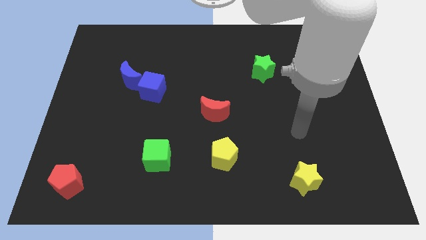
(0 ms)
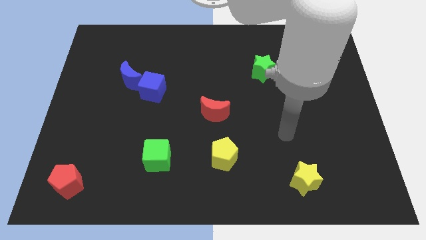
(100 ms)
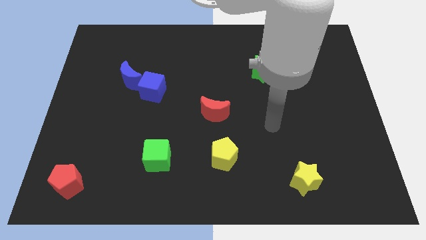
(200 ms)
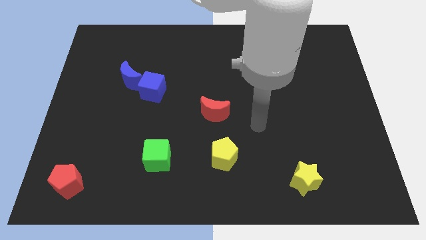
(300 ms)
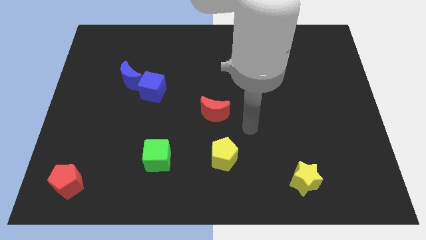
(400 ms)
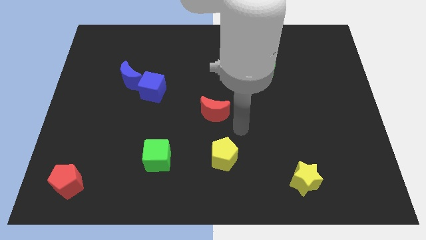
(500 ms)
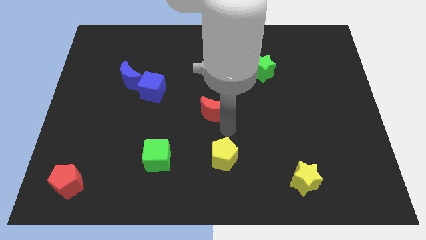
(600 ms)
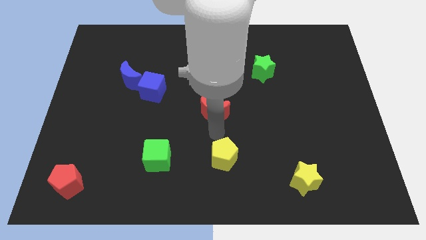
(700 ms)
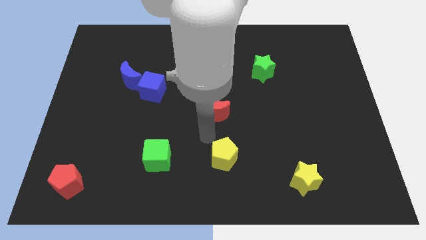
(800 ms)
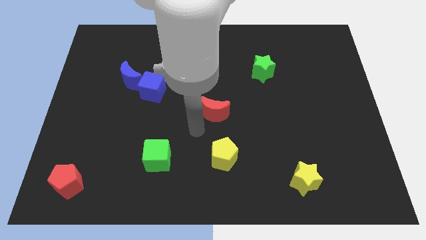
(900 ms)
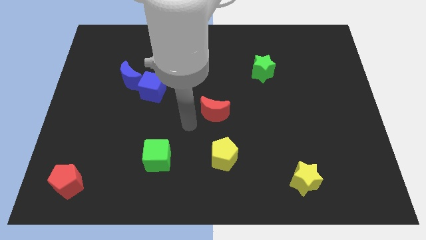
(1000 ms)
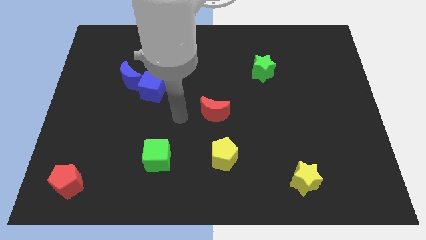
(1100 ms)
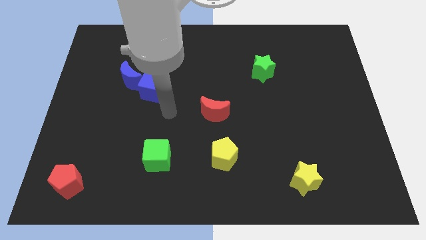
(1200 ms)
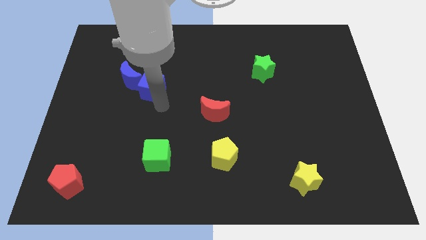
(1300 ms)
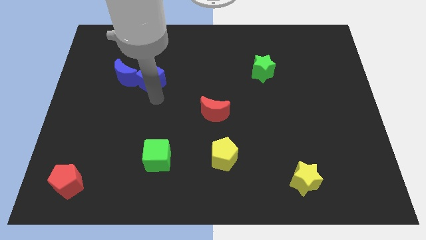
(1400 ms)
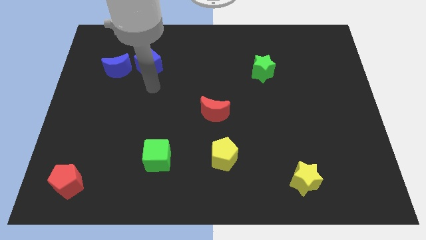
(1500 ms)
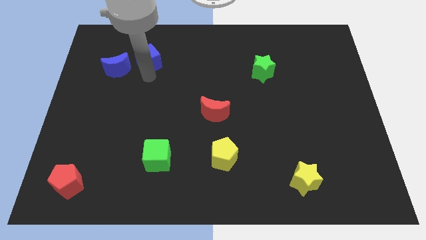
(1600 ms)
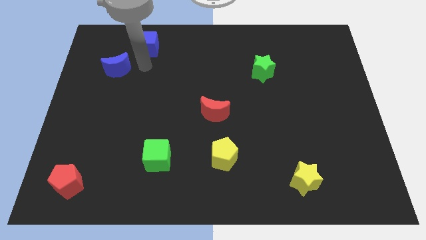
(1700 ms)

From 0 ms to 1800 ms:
pull the blue moon apart from the blue cube

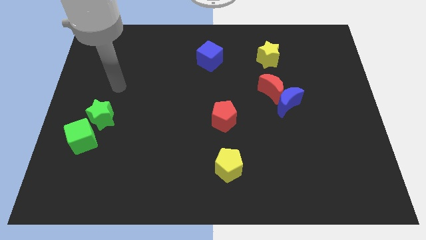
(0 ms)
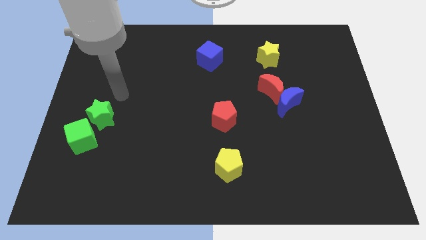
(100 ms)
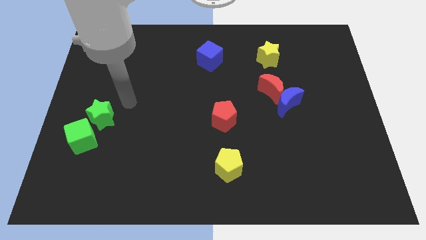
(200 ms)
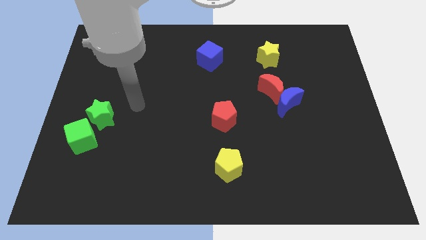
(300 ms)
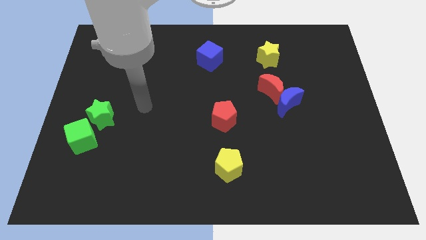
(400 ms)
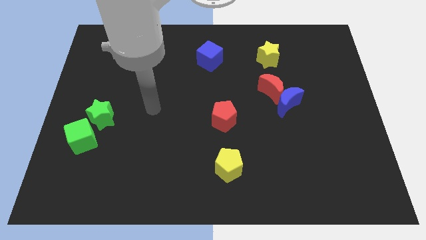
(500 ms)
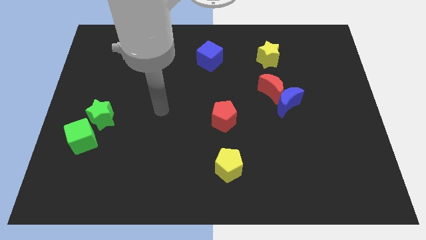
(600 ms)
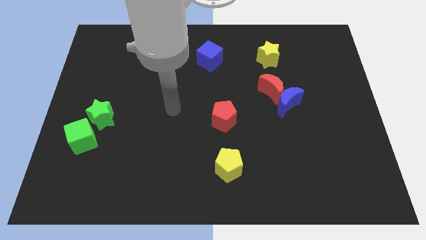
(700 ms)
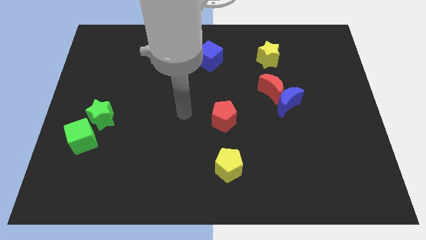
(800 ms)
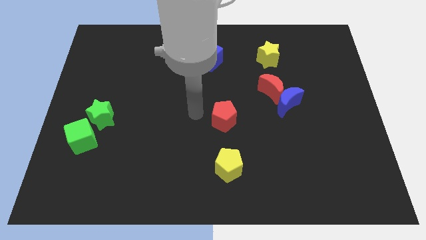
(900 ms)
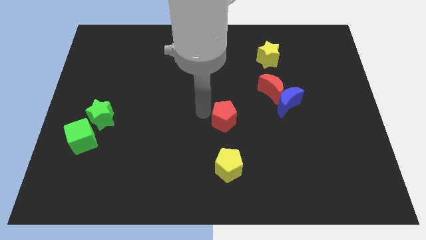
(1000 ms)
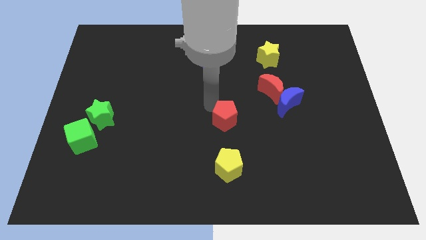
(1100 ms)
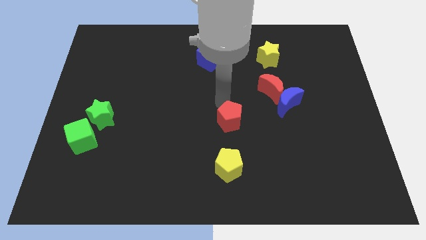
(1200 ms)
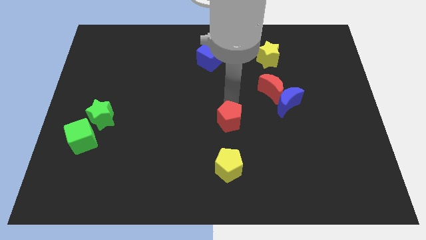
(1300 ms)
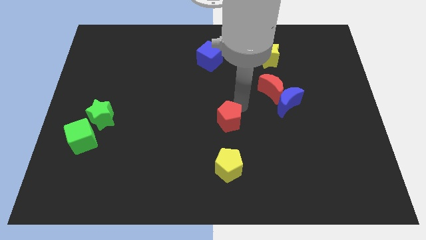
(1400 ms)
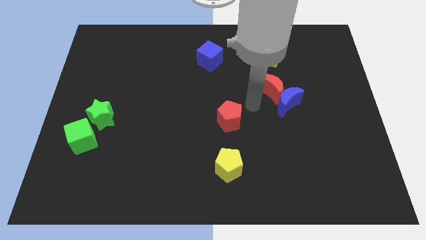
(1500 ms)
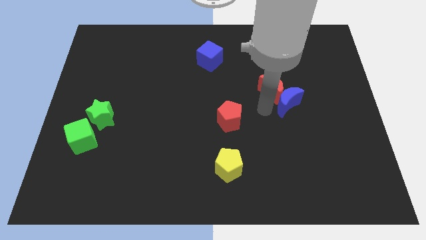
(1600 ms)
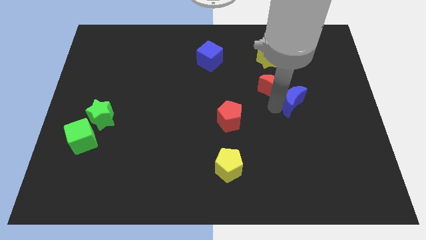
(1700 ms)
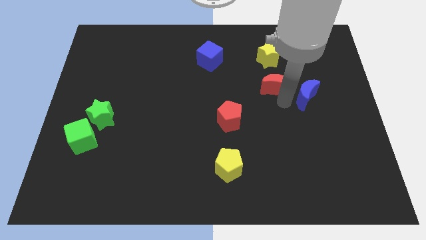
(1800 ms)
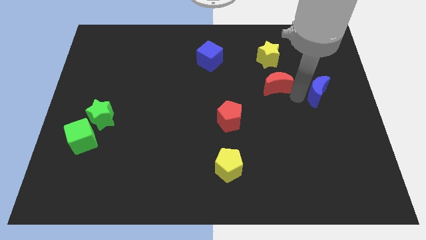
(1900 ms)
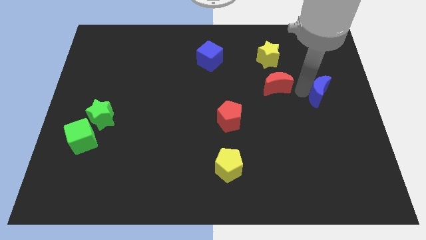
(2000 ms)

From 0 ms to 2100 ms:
move the red moon away from the blue moon

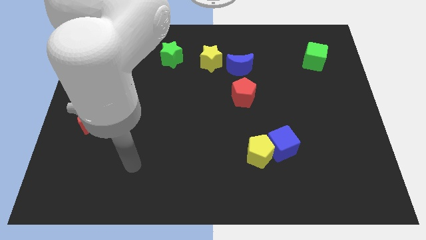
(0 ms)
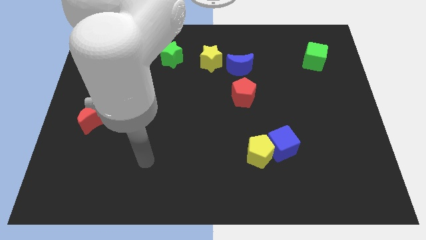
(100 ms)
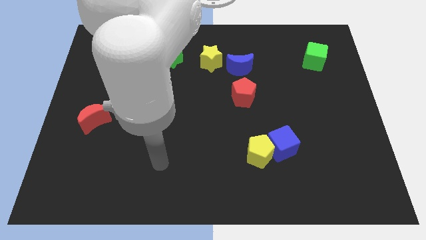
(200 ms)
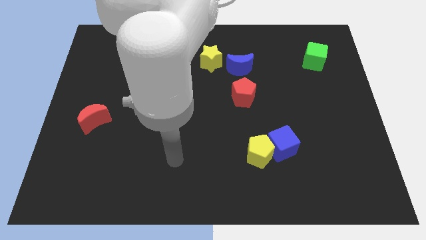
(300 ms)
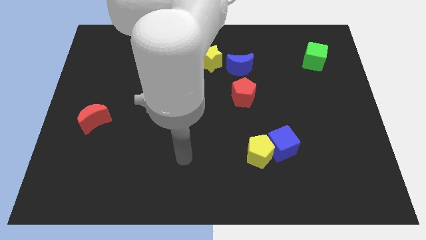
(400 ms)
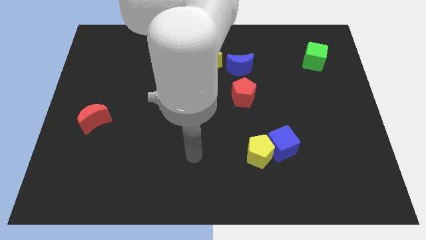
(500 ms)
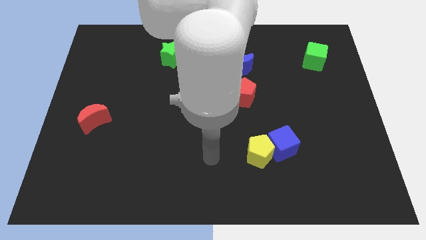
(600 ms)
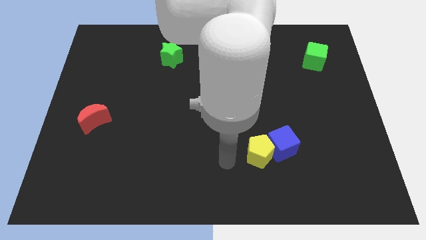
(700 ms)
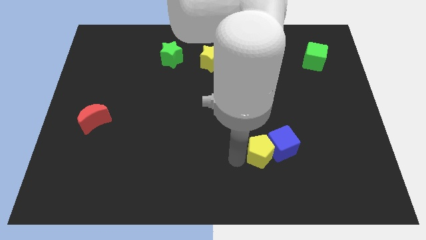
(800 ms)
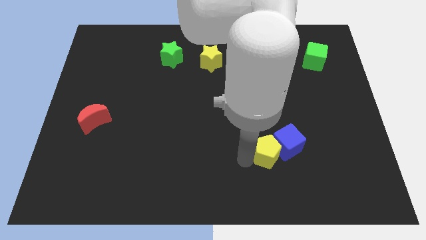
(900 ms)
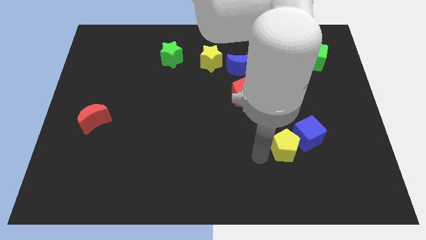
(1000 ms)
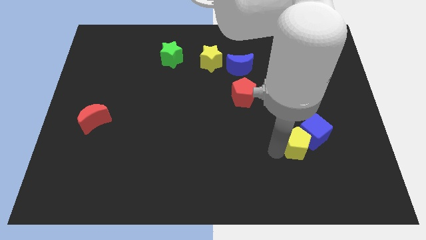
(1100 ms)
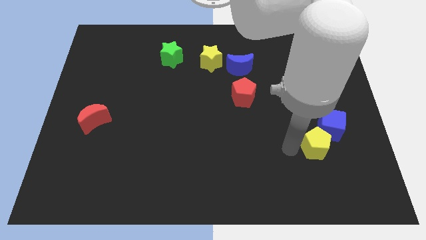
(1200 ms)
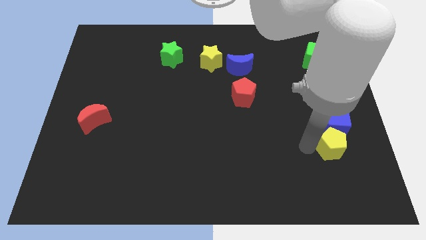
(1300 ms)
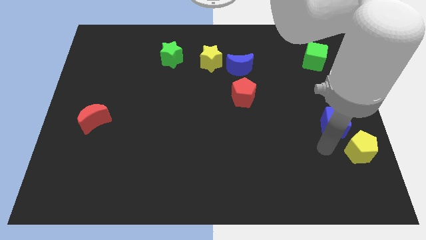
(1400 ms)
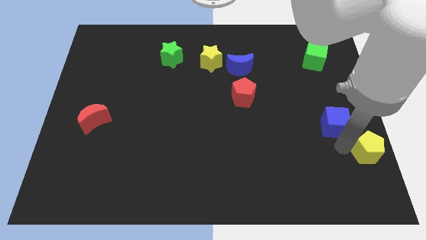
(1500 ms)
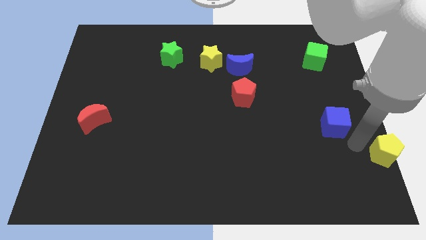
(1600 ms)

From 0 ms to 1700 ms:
move the blue cube away from the yellow pentagon

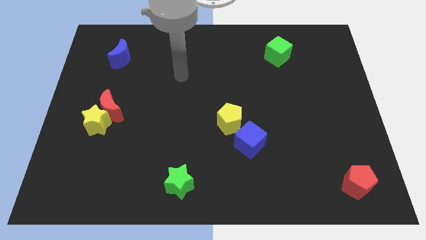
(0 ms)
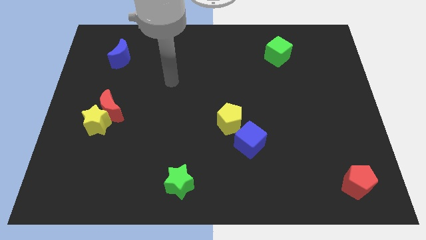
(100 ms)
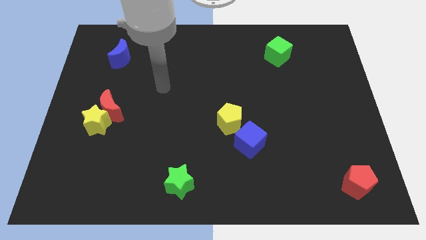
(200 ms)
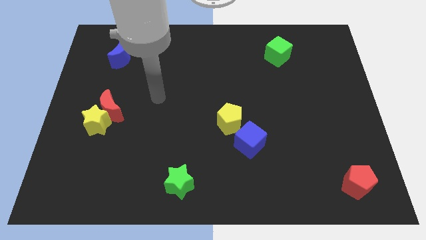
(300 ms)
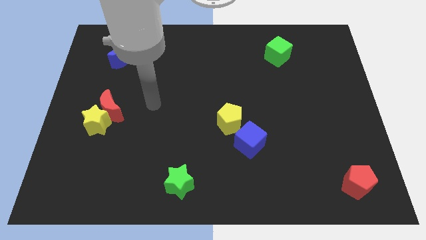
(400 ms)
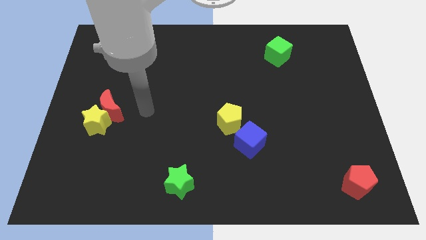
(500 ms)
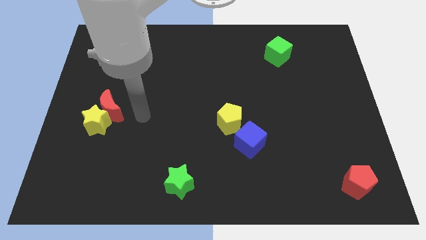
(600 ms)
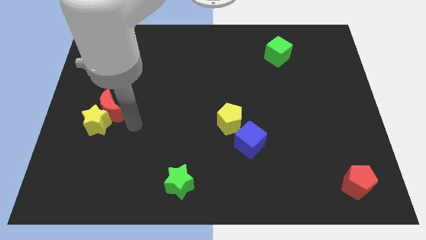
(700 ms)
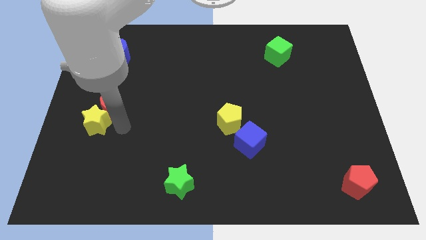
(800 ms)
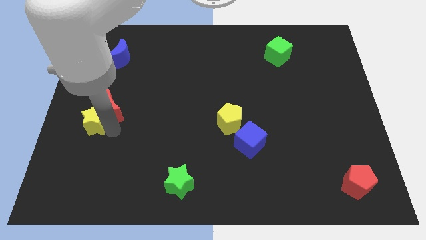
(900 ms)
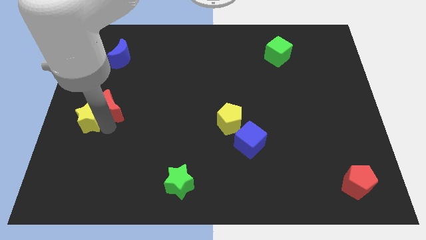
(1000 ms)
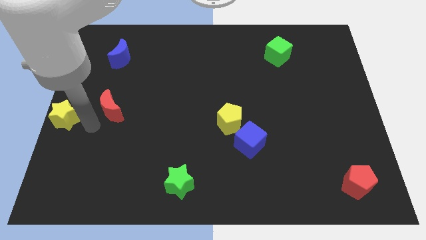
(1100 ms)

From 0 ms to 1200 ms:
pull the red moon apart from the yellow star

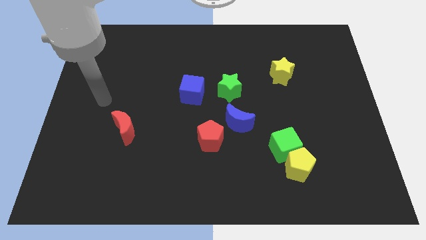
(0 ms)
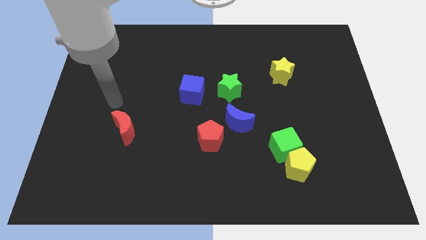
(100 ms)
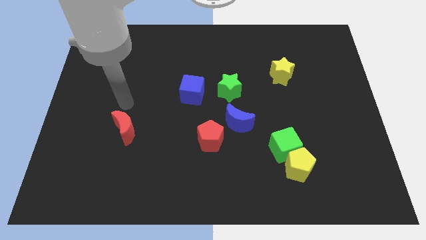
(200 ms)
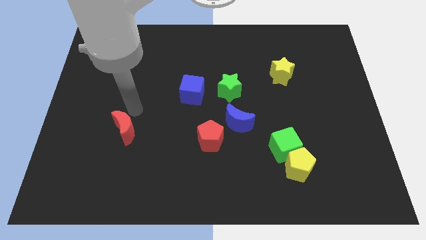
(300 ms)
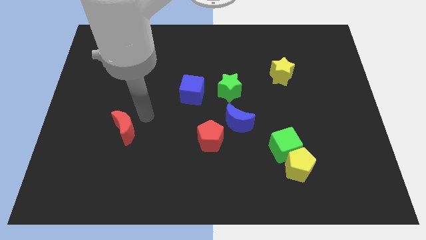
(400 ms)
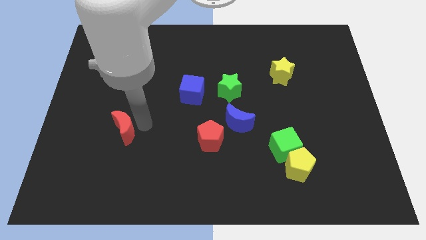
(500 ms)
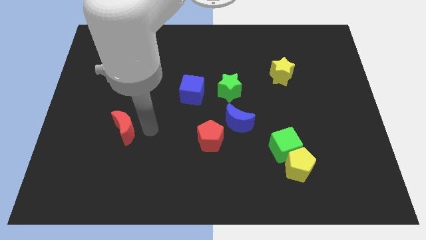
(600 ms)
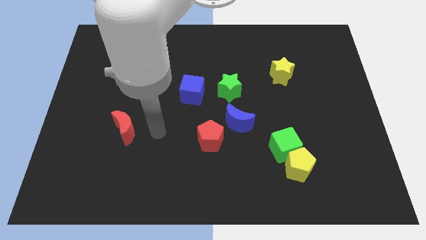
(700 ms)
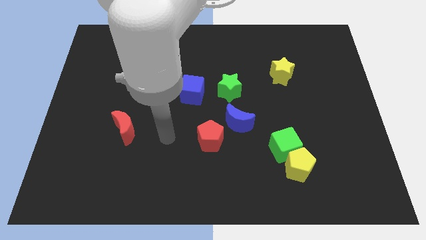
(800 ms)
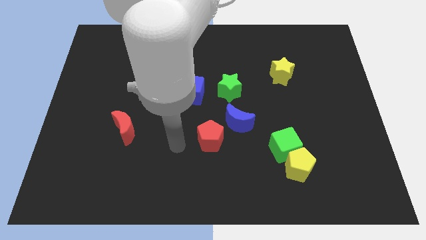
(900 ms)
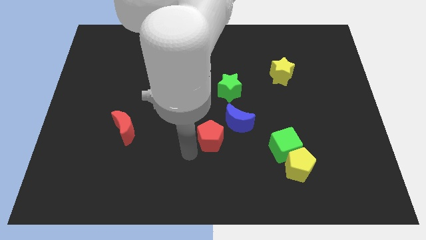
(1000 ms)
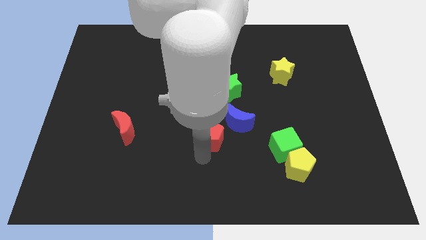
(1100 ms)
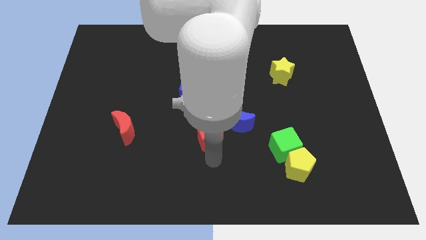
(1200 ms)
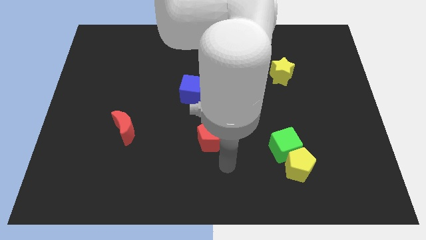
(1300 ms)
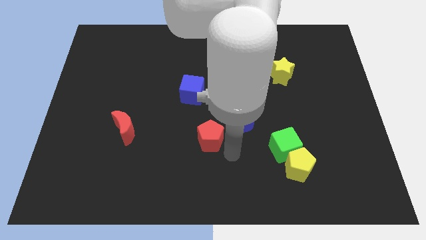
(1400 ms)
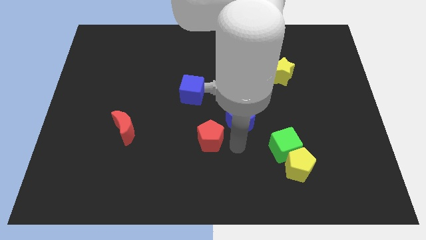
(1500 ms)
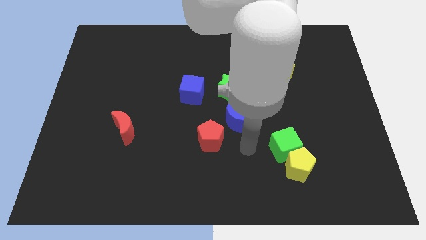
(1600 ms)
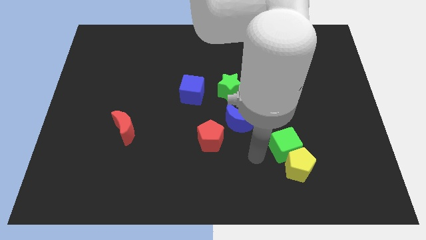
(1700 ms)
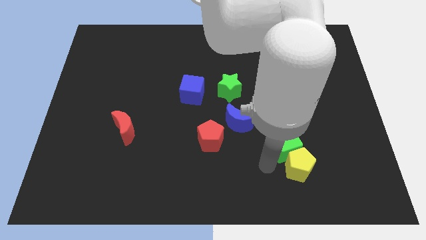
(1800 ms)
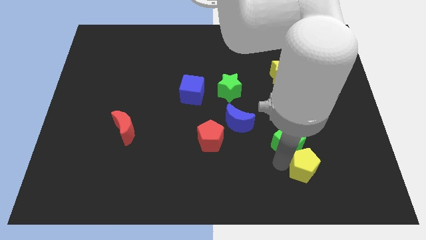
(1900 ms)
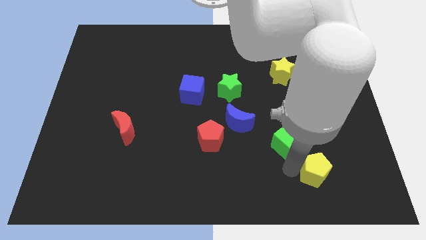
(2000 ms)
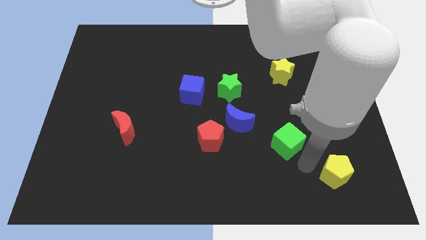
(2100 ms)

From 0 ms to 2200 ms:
pull the green cube apart from the yellow pentagon

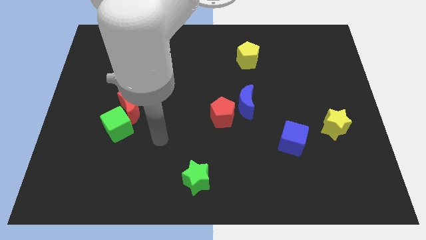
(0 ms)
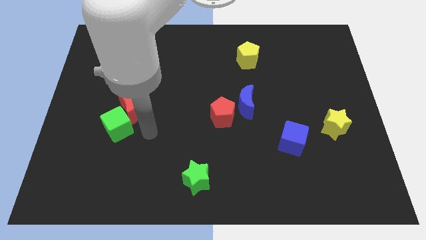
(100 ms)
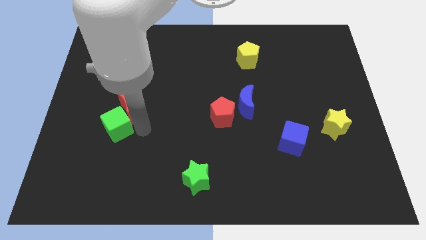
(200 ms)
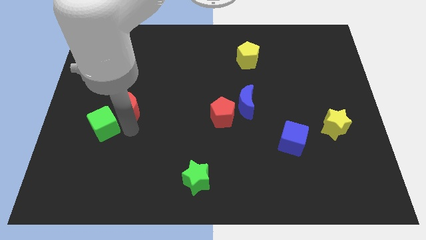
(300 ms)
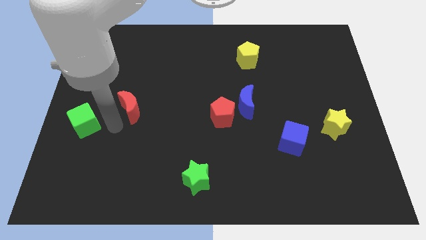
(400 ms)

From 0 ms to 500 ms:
move the red moon away from the green cube

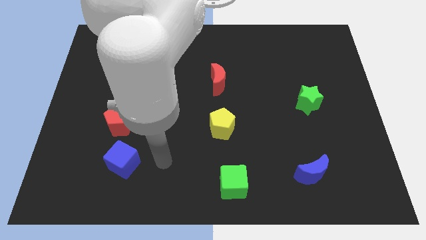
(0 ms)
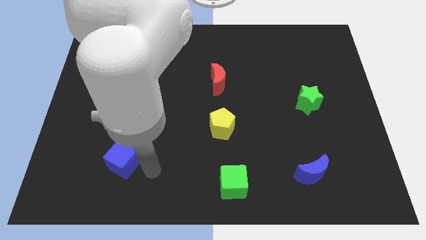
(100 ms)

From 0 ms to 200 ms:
pull the red pentagon apart from the blue cube
